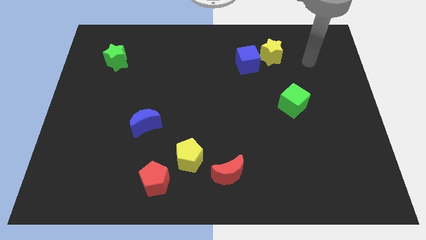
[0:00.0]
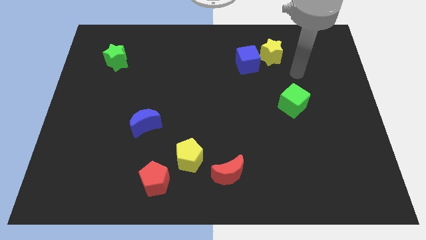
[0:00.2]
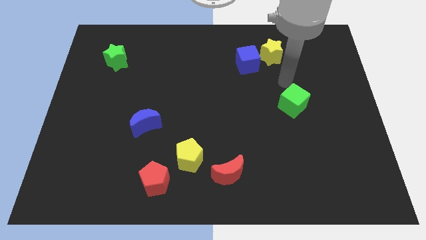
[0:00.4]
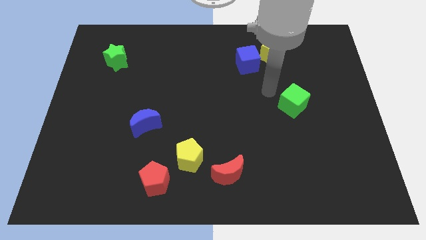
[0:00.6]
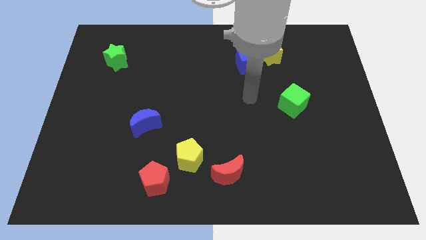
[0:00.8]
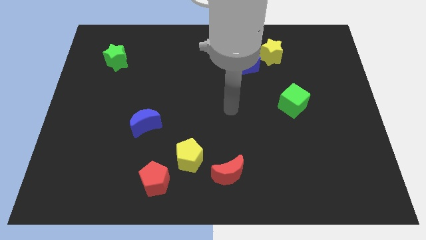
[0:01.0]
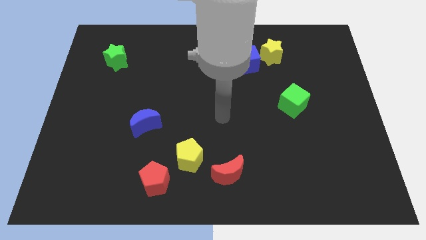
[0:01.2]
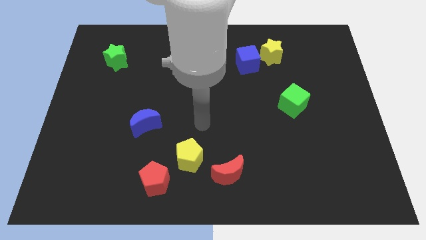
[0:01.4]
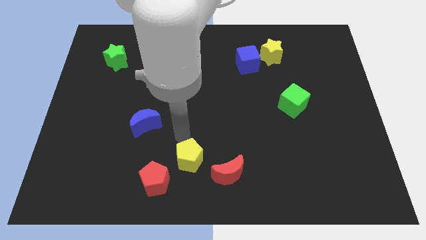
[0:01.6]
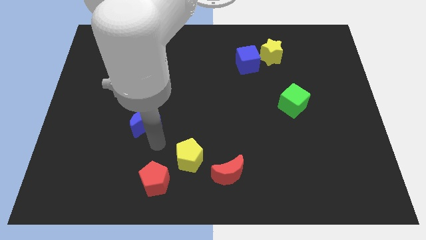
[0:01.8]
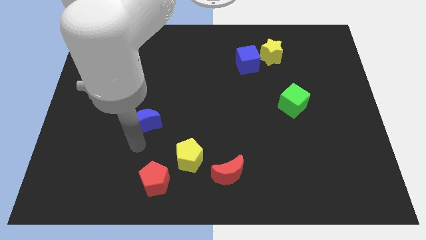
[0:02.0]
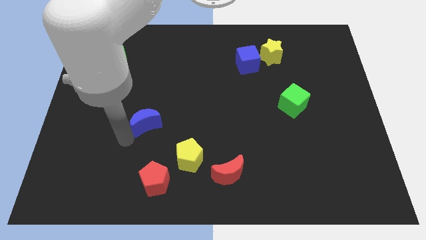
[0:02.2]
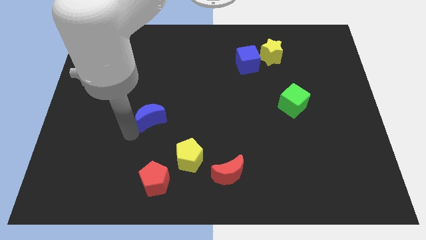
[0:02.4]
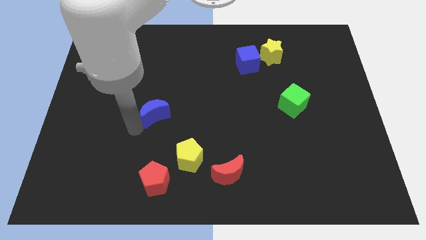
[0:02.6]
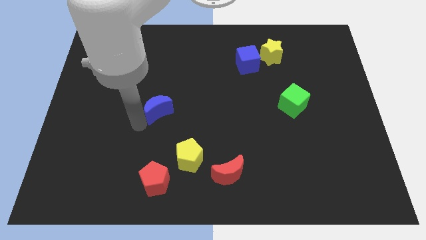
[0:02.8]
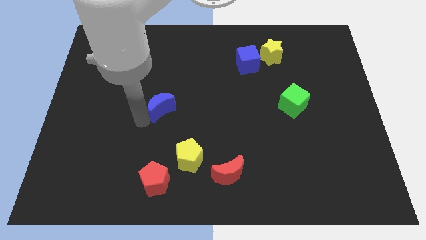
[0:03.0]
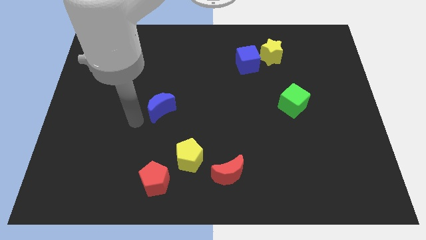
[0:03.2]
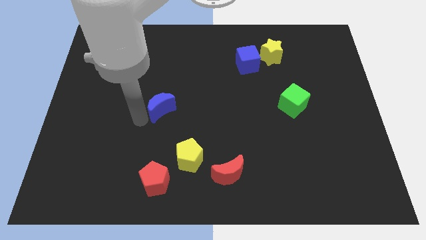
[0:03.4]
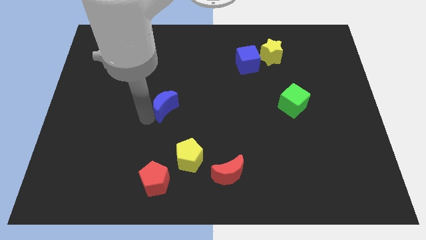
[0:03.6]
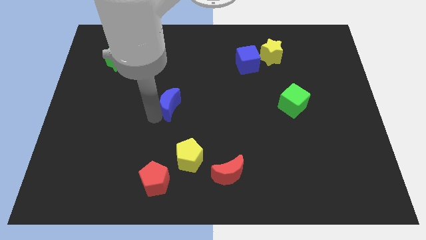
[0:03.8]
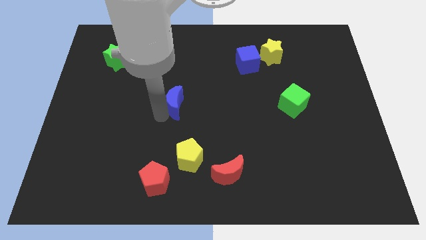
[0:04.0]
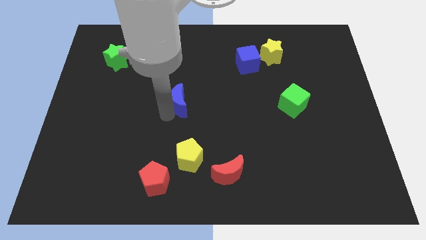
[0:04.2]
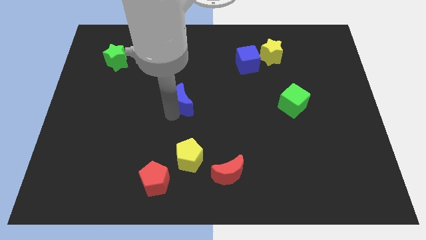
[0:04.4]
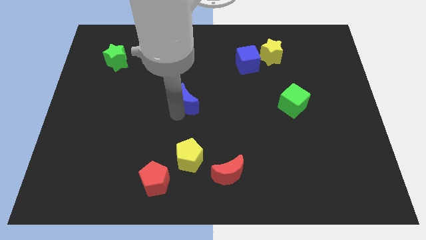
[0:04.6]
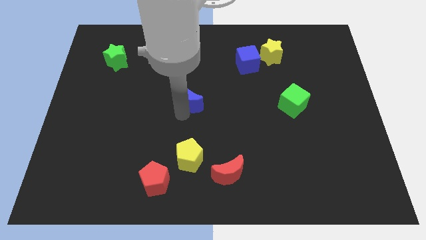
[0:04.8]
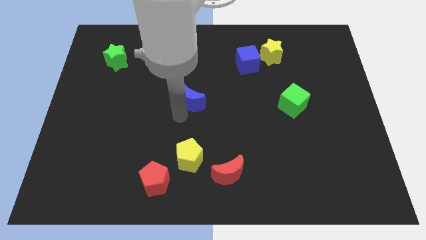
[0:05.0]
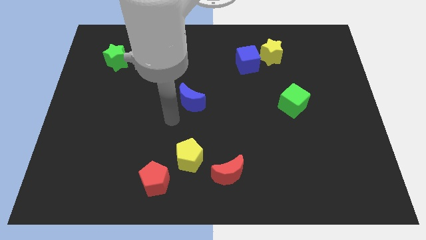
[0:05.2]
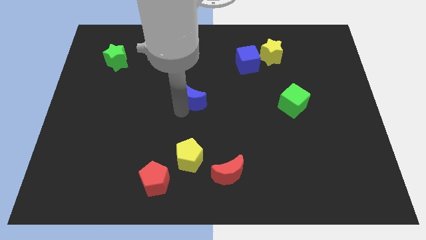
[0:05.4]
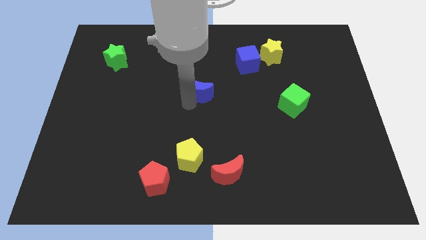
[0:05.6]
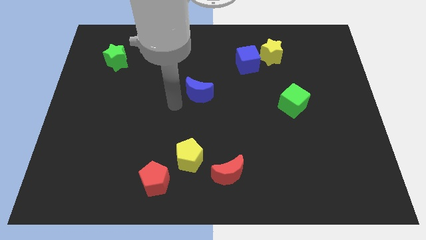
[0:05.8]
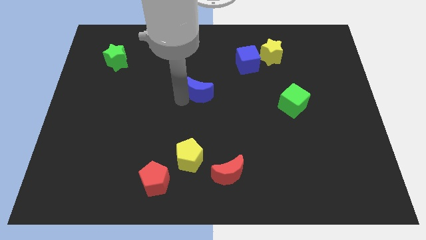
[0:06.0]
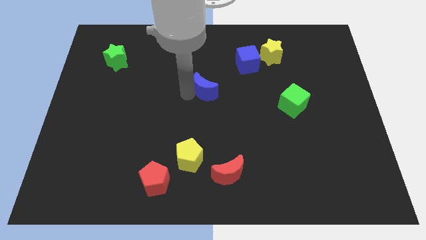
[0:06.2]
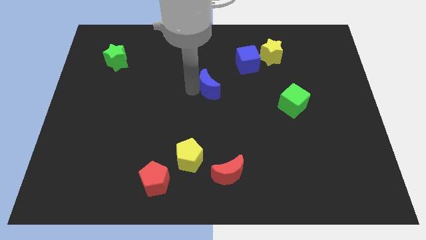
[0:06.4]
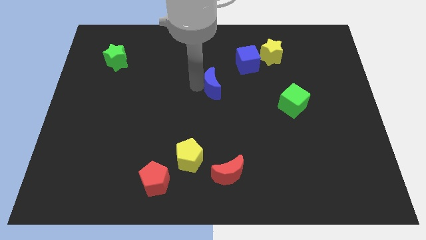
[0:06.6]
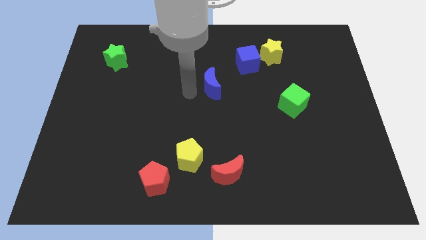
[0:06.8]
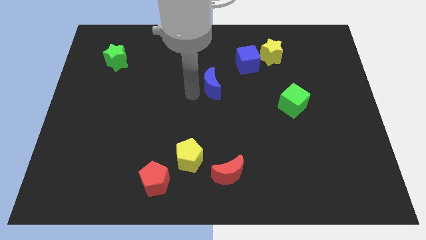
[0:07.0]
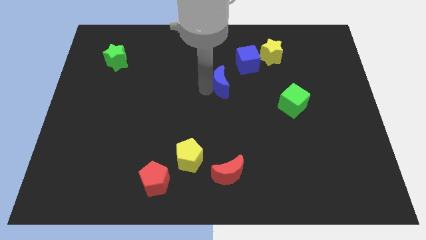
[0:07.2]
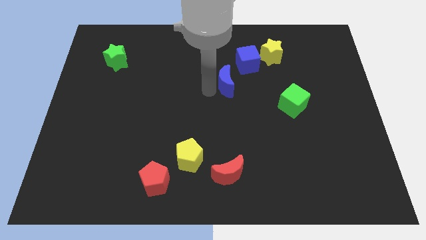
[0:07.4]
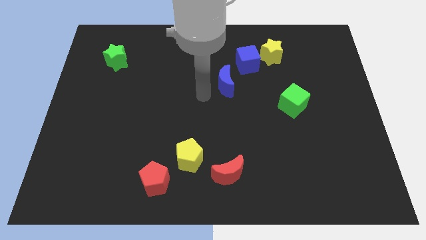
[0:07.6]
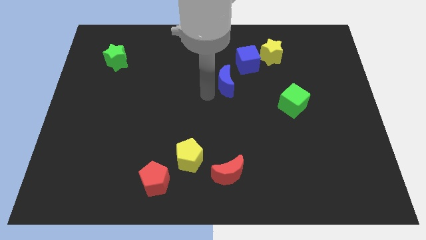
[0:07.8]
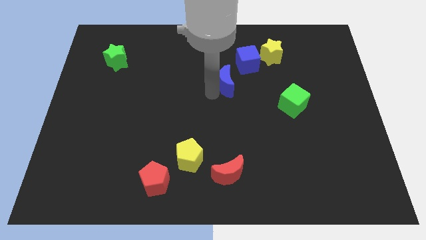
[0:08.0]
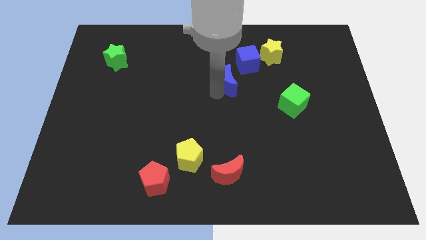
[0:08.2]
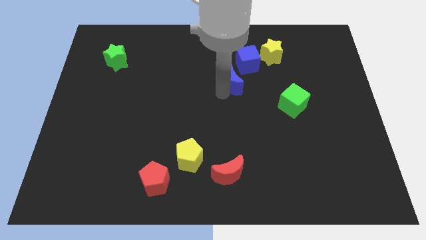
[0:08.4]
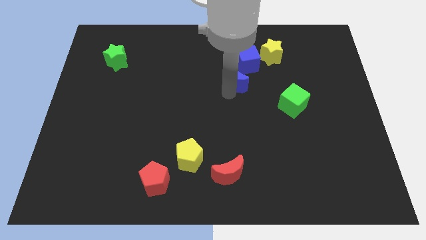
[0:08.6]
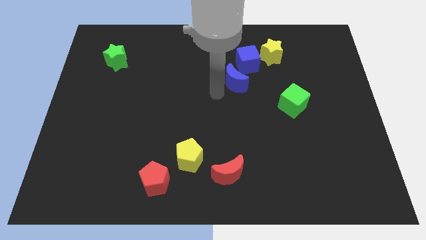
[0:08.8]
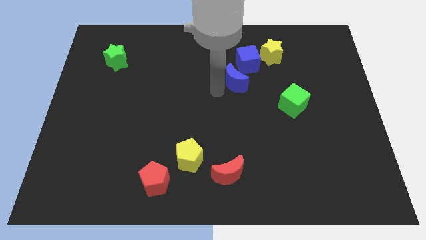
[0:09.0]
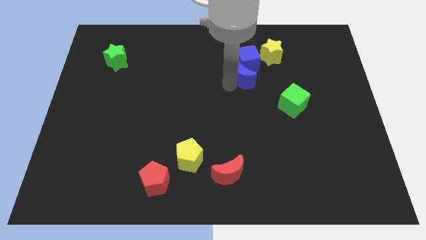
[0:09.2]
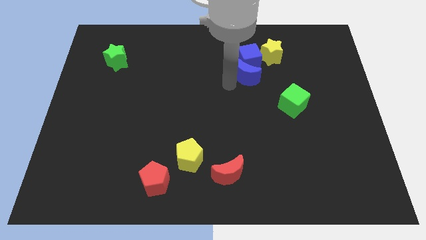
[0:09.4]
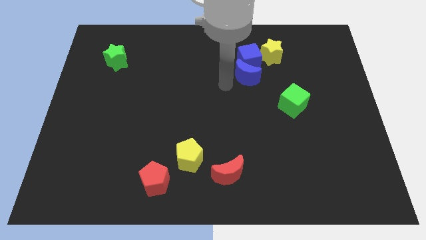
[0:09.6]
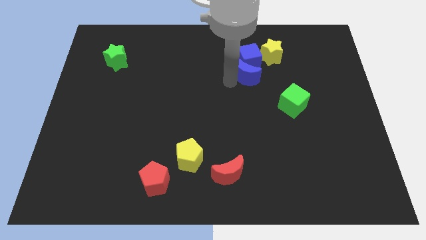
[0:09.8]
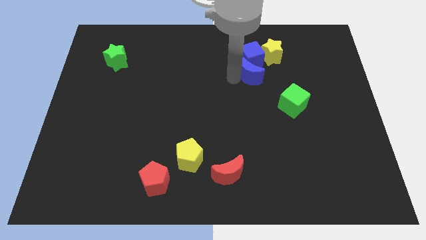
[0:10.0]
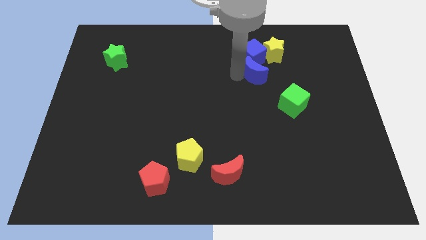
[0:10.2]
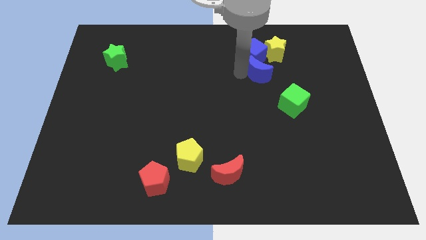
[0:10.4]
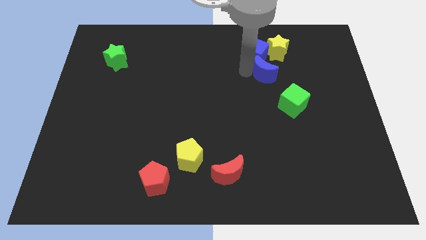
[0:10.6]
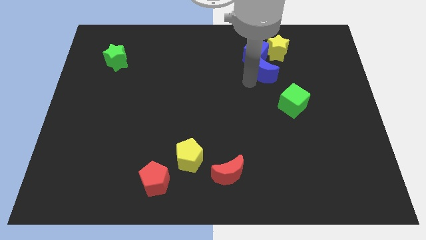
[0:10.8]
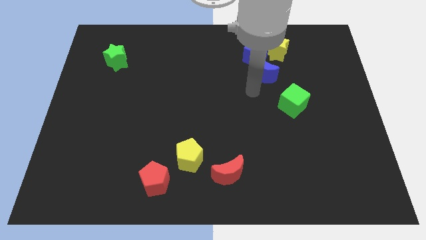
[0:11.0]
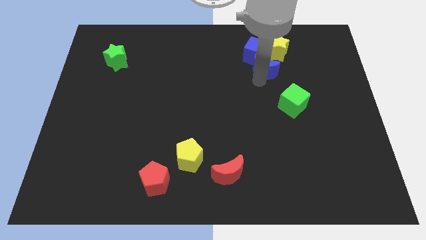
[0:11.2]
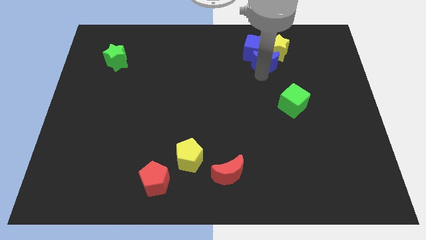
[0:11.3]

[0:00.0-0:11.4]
move the blue moon to the yellow star
